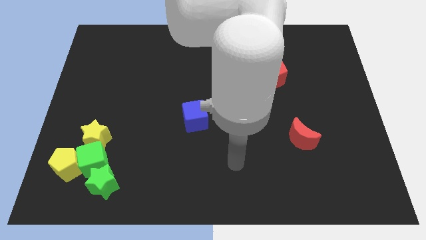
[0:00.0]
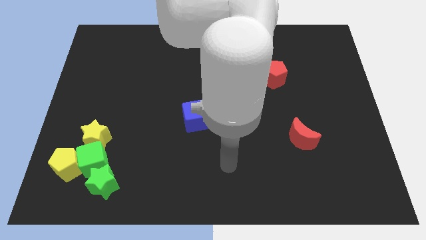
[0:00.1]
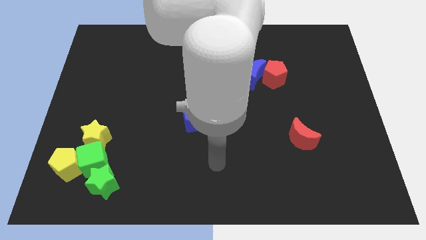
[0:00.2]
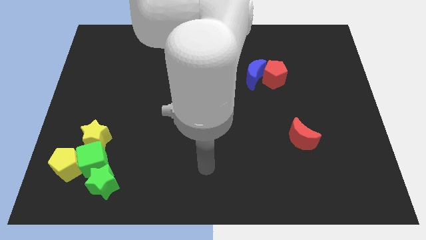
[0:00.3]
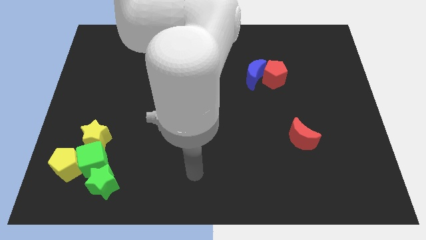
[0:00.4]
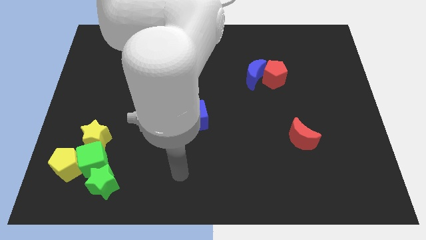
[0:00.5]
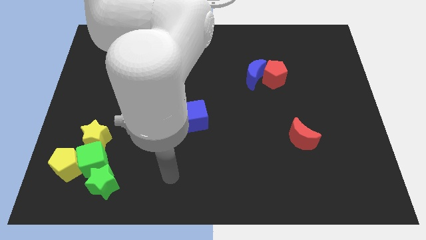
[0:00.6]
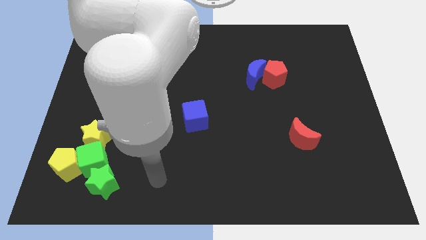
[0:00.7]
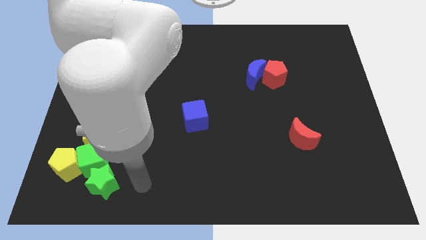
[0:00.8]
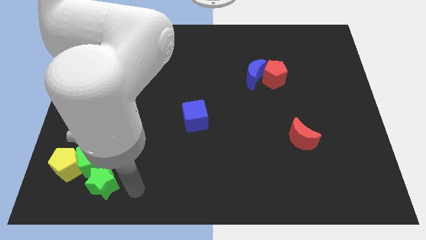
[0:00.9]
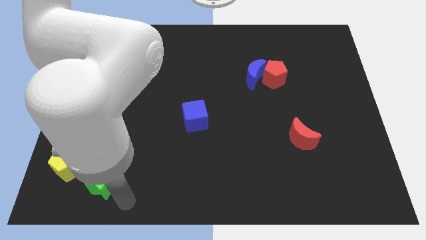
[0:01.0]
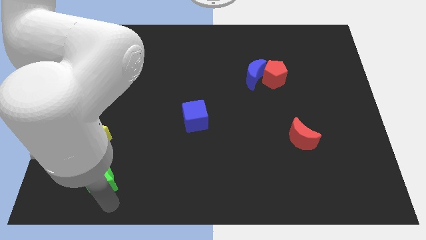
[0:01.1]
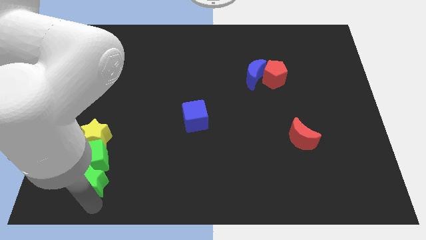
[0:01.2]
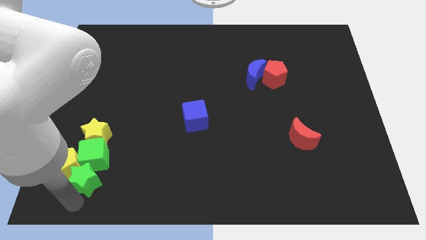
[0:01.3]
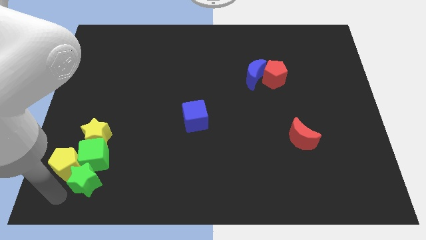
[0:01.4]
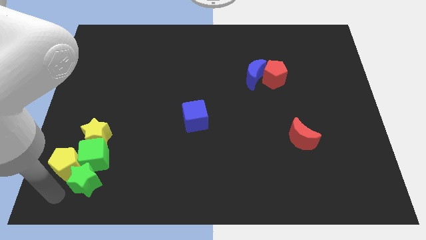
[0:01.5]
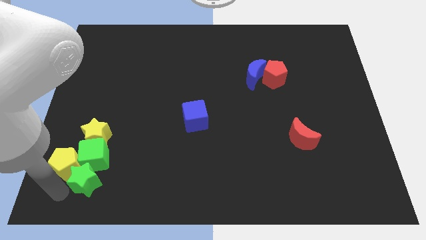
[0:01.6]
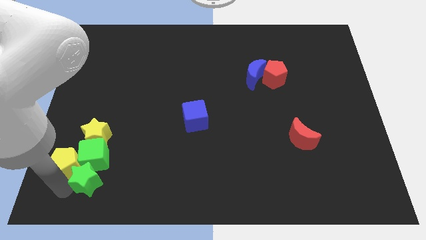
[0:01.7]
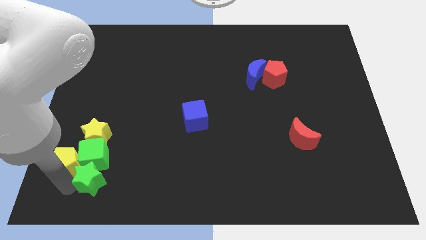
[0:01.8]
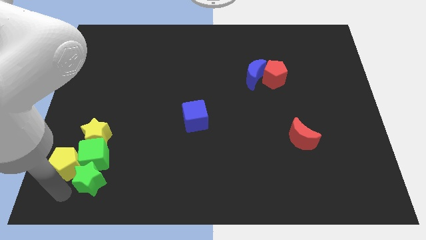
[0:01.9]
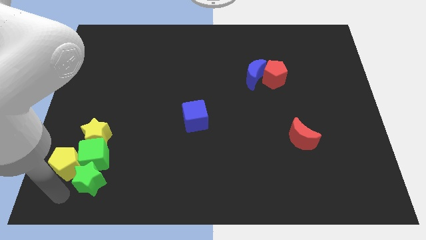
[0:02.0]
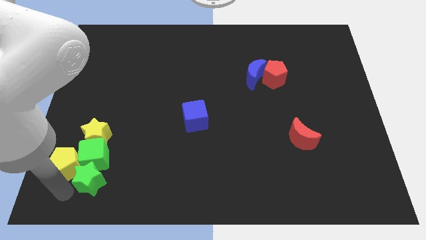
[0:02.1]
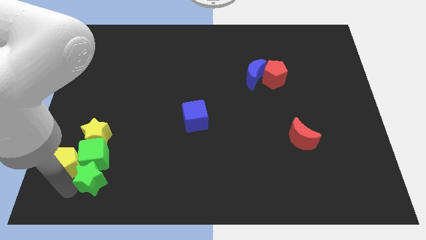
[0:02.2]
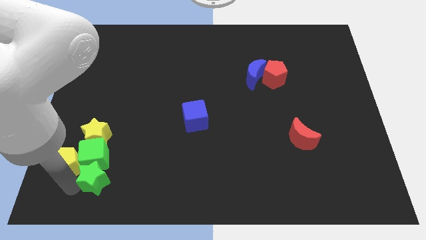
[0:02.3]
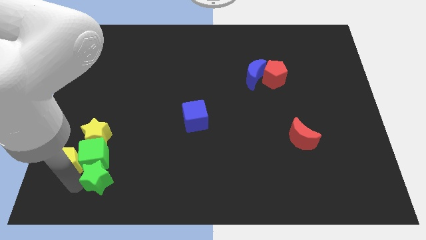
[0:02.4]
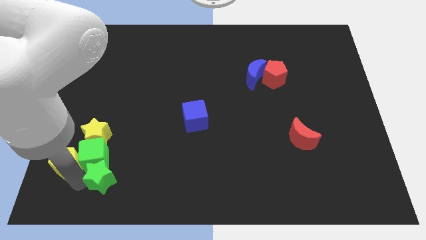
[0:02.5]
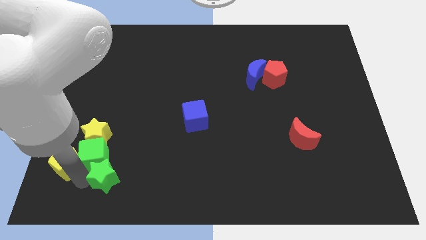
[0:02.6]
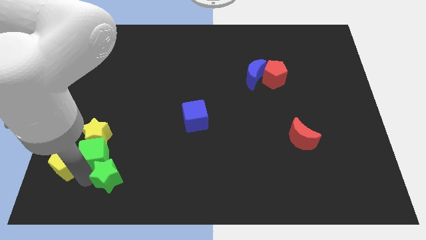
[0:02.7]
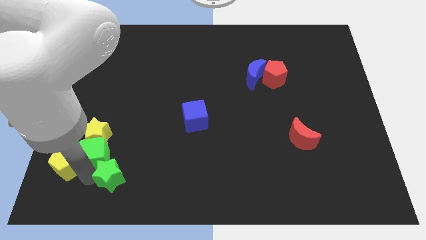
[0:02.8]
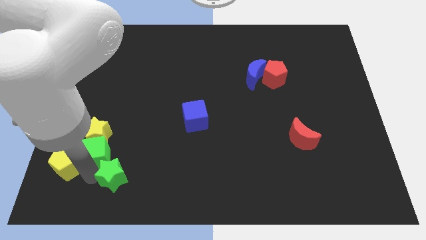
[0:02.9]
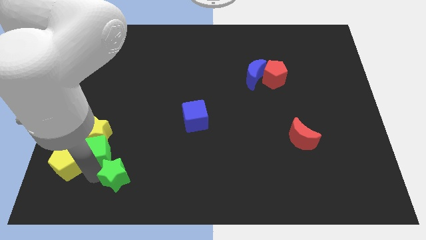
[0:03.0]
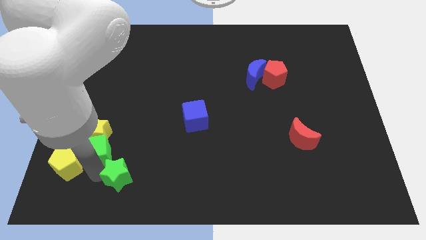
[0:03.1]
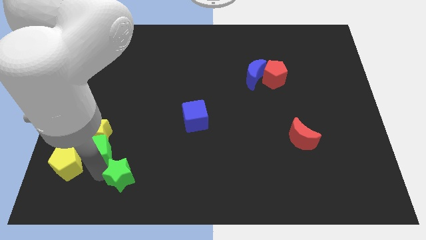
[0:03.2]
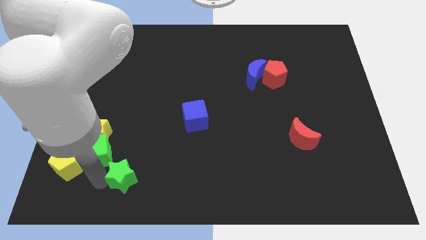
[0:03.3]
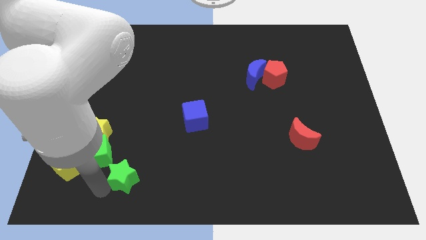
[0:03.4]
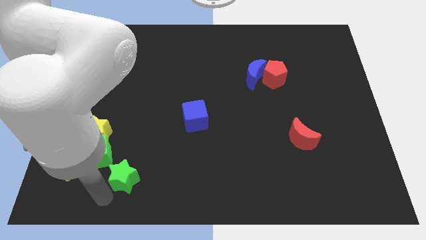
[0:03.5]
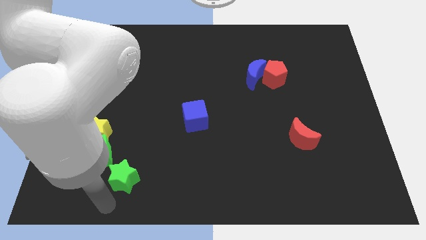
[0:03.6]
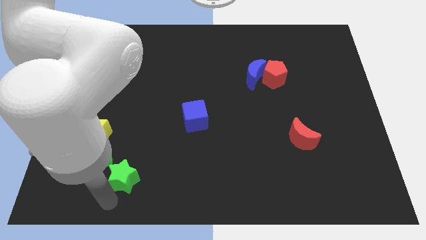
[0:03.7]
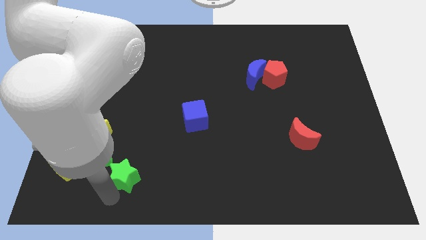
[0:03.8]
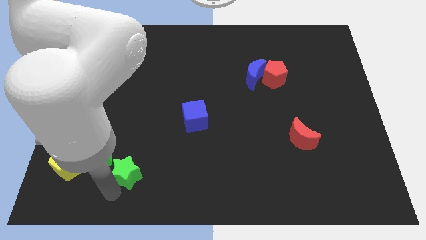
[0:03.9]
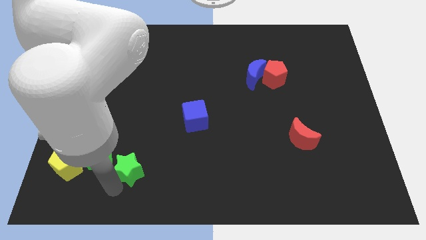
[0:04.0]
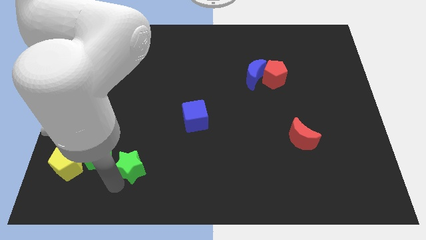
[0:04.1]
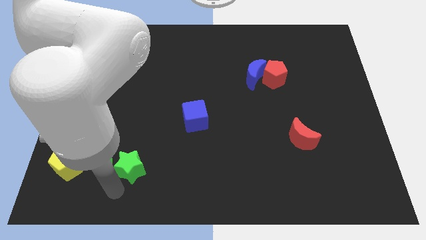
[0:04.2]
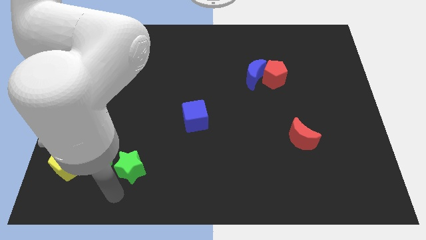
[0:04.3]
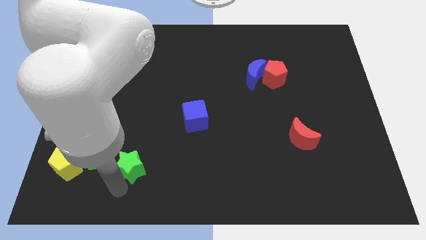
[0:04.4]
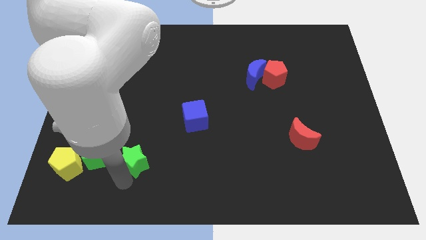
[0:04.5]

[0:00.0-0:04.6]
slightly slide the green star upwards and right

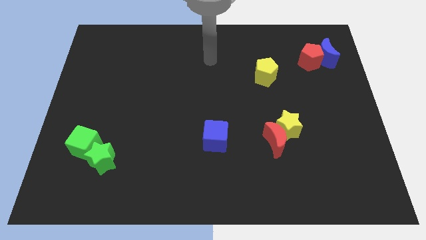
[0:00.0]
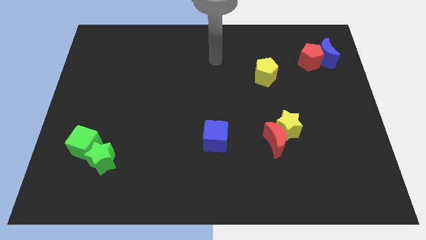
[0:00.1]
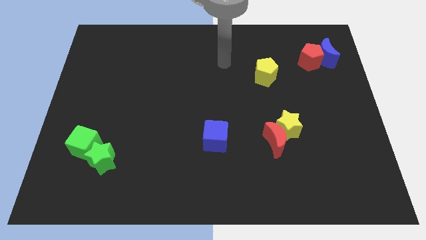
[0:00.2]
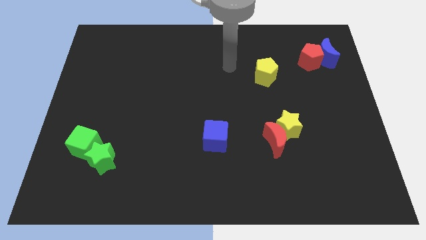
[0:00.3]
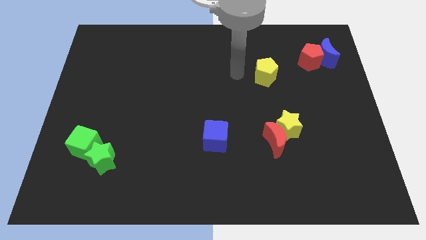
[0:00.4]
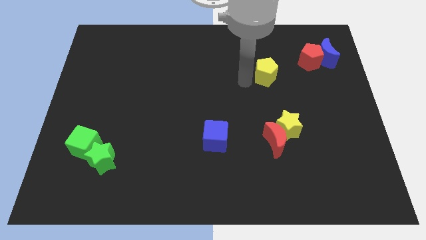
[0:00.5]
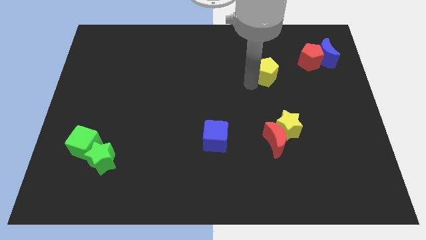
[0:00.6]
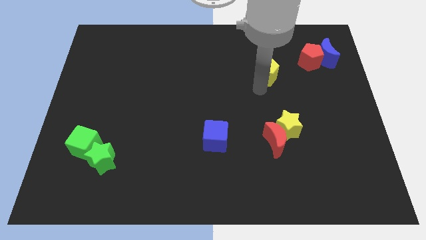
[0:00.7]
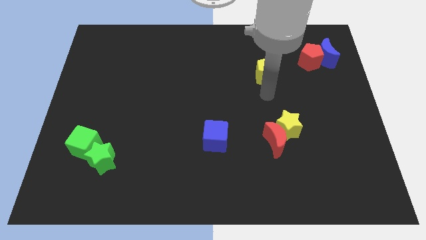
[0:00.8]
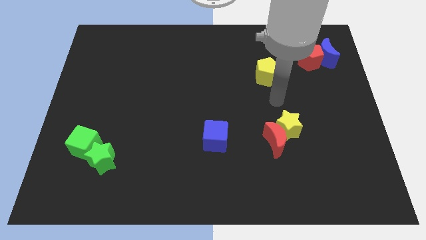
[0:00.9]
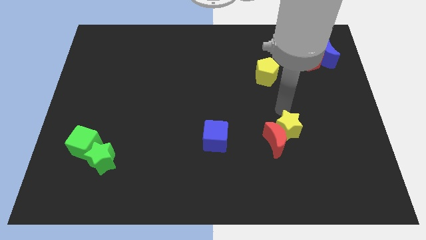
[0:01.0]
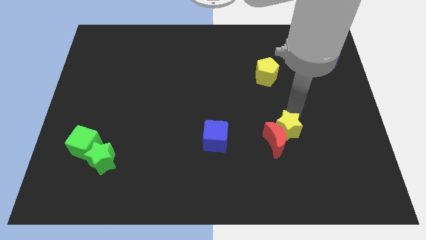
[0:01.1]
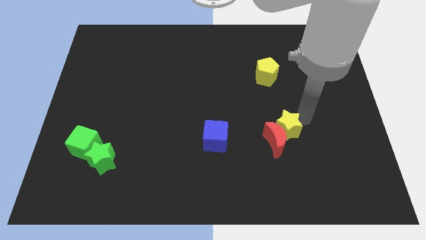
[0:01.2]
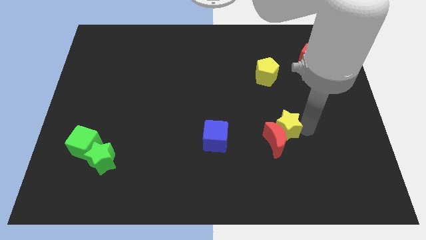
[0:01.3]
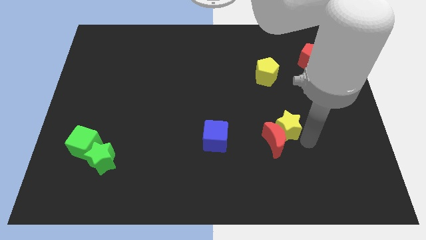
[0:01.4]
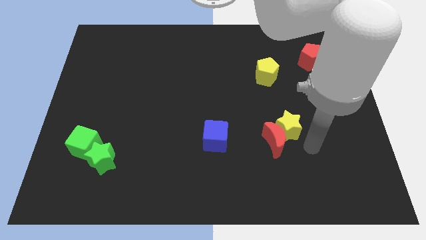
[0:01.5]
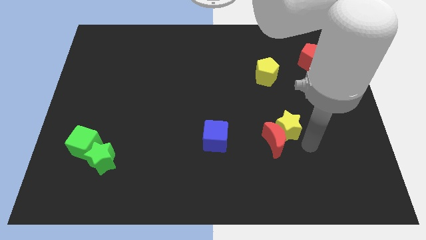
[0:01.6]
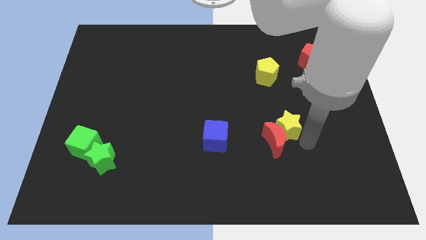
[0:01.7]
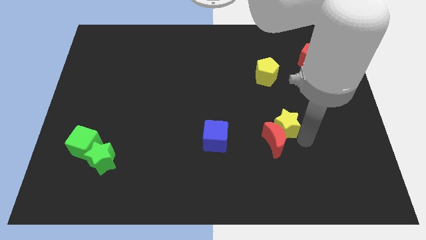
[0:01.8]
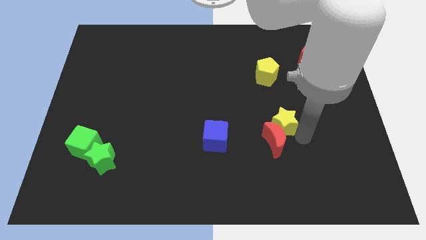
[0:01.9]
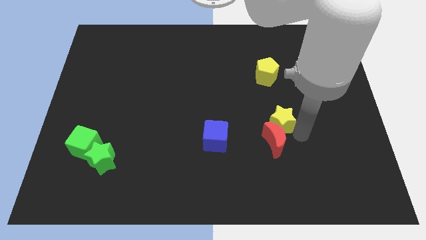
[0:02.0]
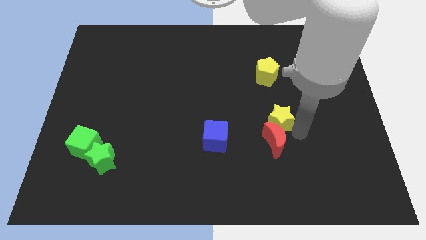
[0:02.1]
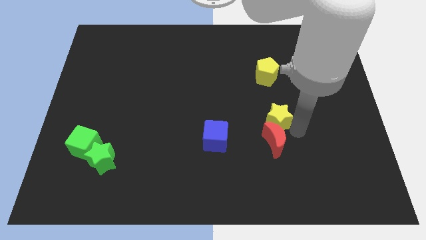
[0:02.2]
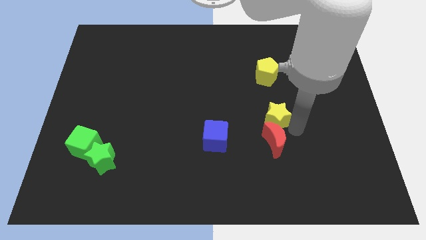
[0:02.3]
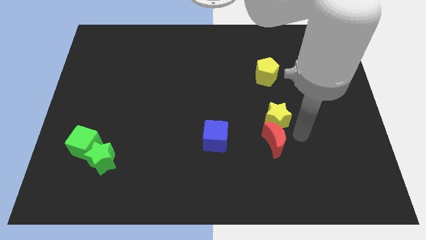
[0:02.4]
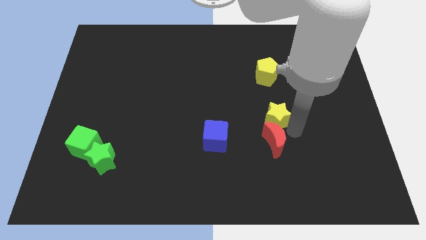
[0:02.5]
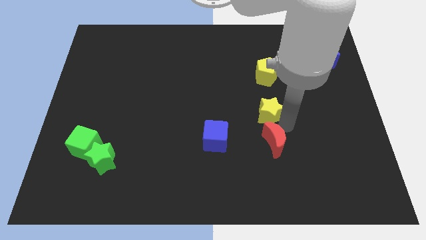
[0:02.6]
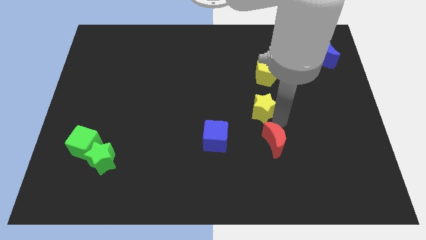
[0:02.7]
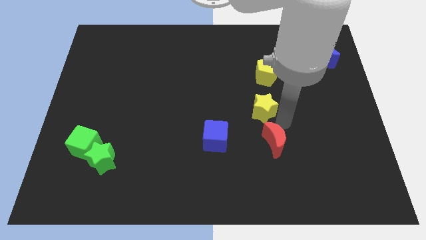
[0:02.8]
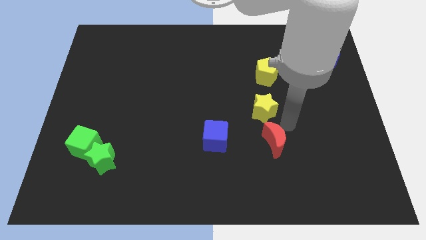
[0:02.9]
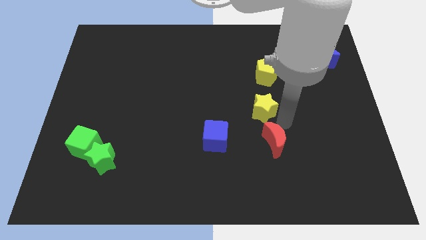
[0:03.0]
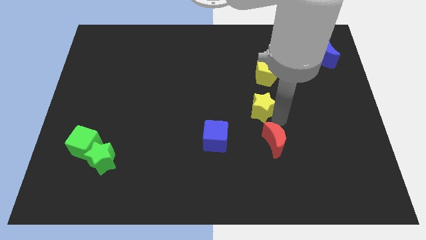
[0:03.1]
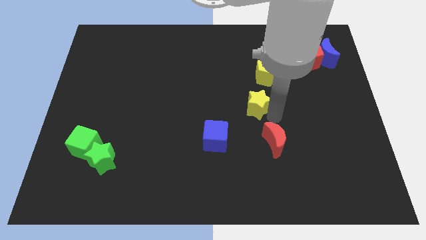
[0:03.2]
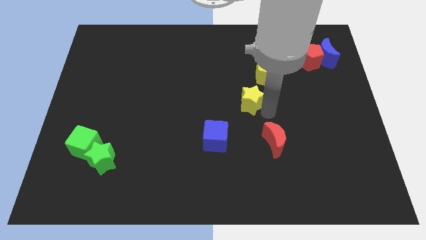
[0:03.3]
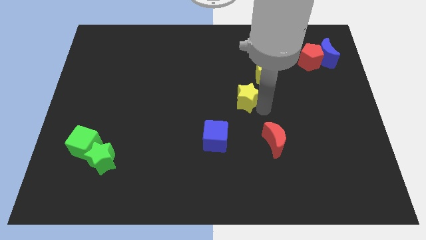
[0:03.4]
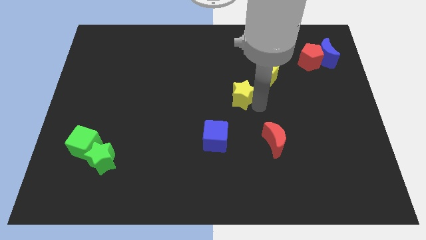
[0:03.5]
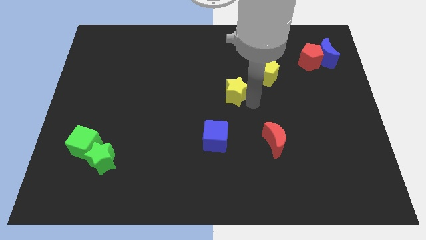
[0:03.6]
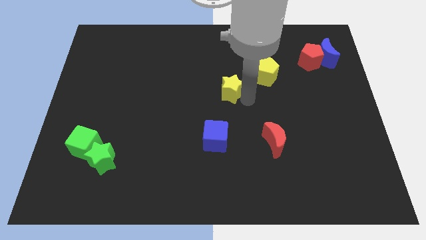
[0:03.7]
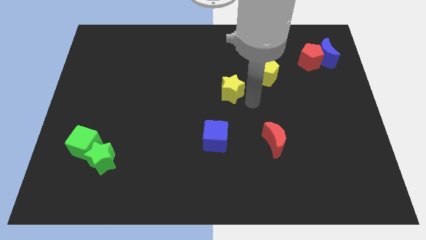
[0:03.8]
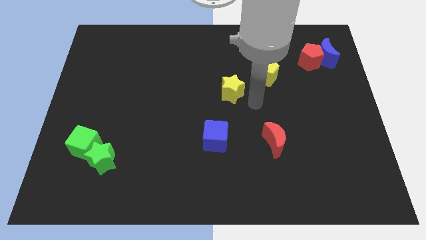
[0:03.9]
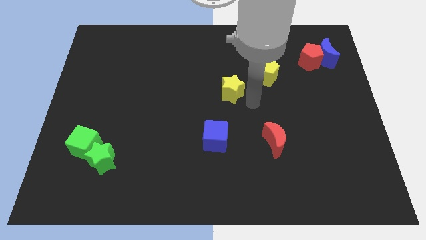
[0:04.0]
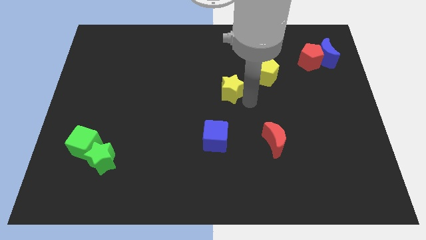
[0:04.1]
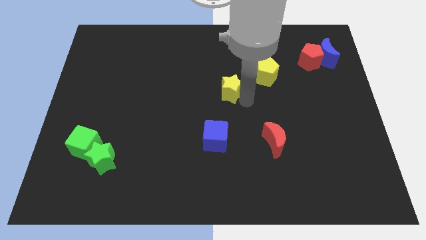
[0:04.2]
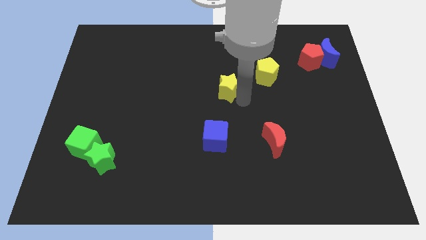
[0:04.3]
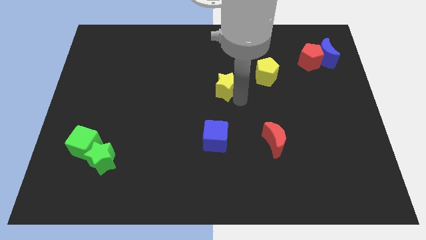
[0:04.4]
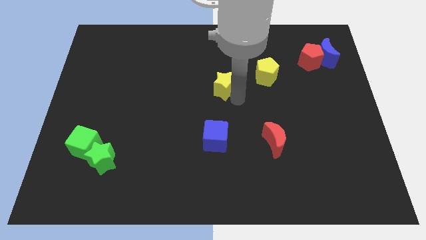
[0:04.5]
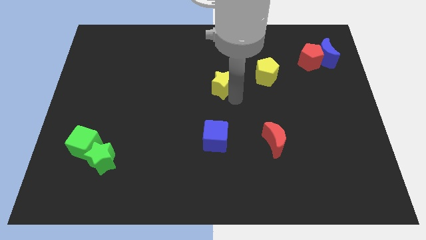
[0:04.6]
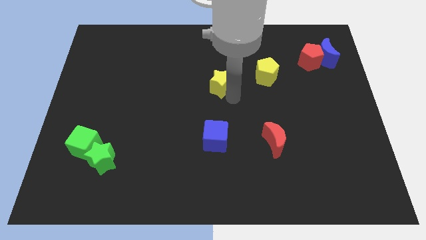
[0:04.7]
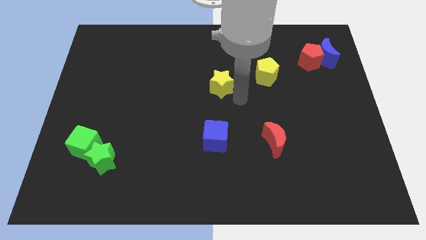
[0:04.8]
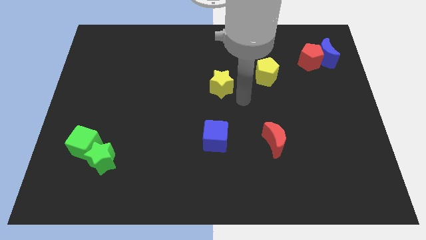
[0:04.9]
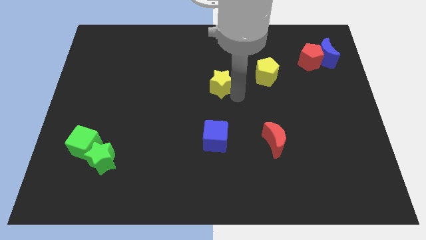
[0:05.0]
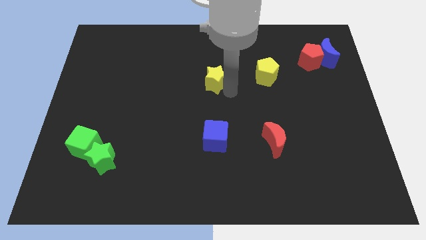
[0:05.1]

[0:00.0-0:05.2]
move the yellow star upwards and left
